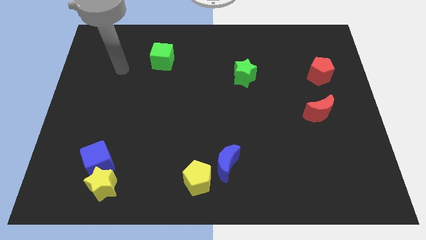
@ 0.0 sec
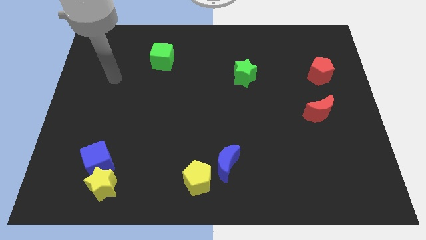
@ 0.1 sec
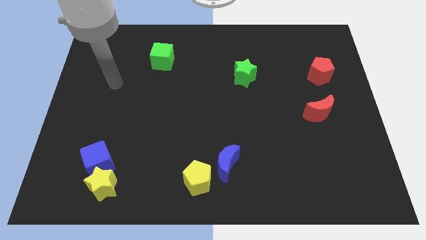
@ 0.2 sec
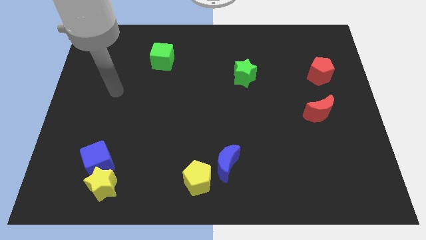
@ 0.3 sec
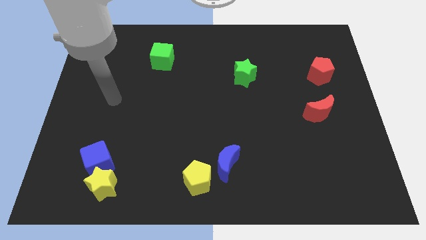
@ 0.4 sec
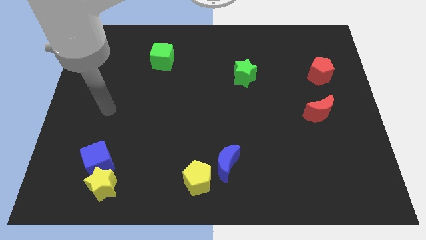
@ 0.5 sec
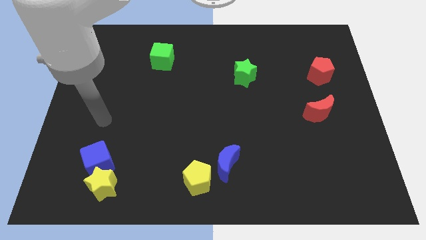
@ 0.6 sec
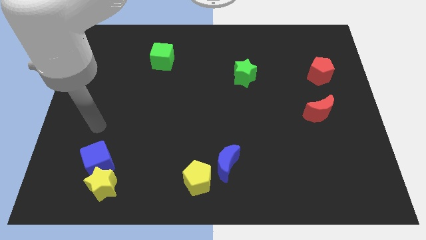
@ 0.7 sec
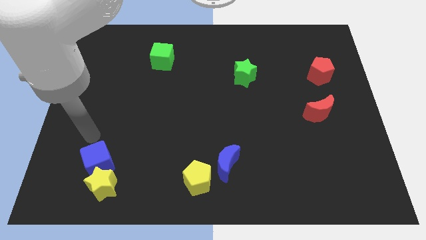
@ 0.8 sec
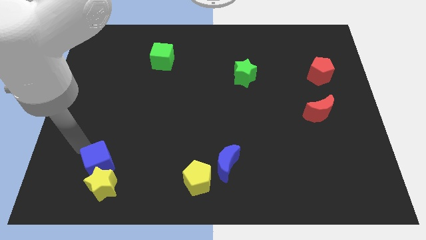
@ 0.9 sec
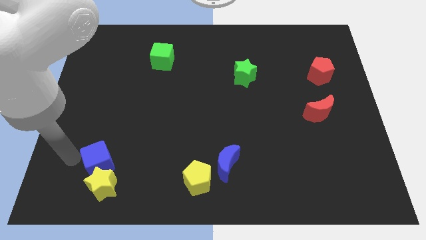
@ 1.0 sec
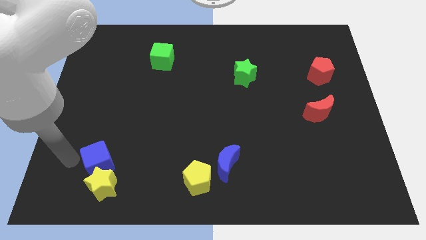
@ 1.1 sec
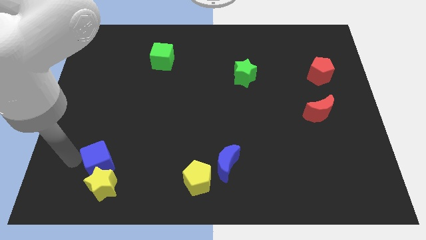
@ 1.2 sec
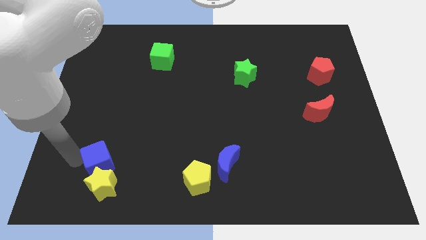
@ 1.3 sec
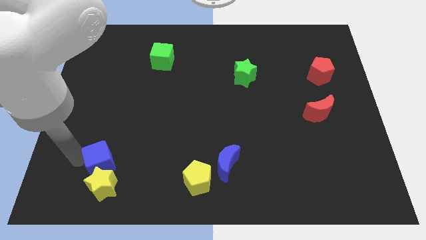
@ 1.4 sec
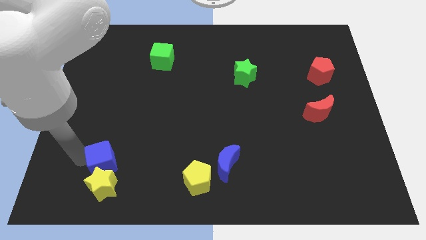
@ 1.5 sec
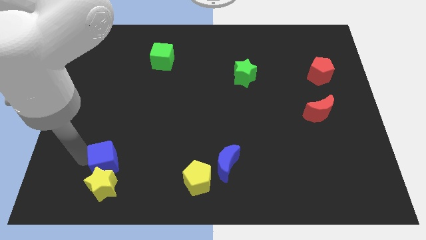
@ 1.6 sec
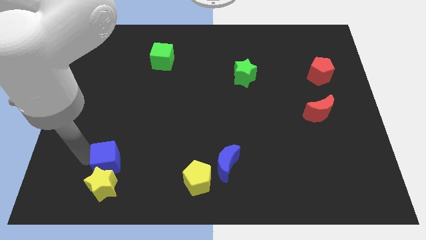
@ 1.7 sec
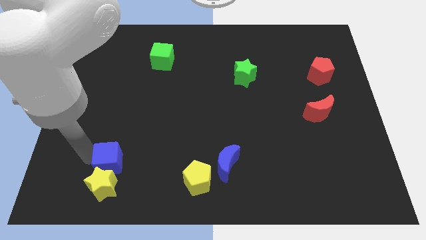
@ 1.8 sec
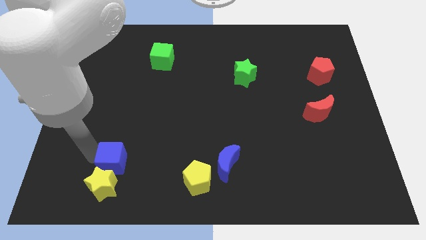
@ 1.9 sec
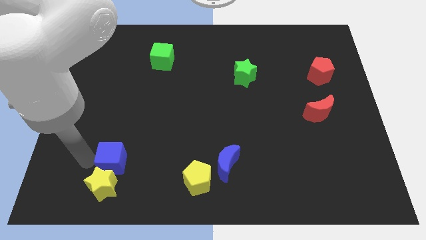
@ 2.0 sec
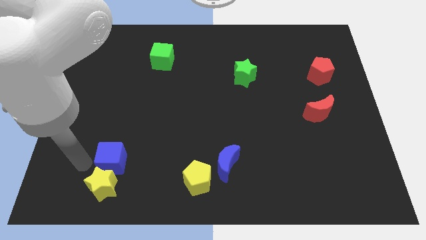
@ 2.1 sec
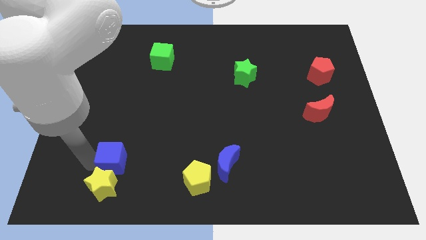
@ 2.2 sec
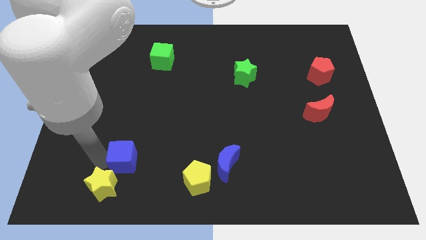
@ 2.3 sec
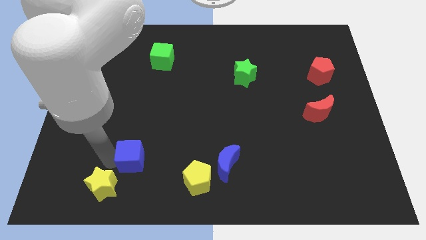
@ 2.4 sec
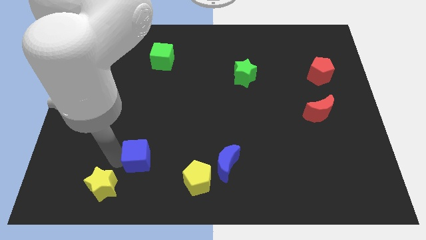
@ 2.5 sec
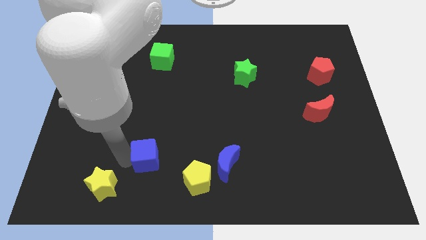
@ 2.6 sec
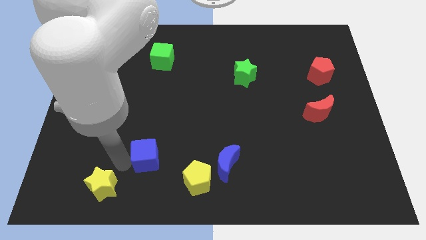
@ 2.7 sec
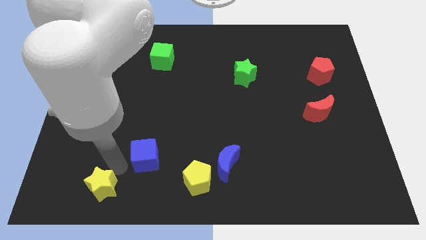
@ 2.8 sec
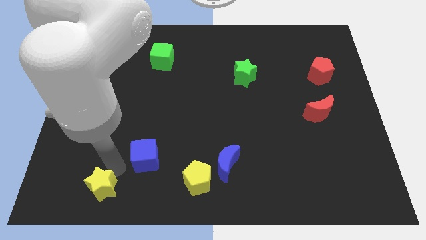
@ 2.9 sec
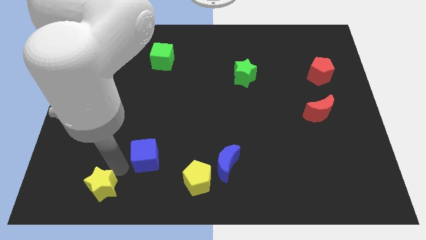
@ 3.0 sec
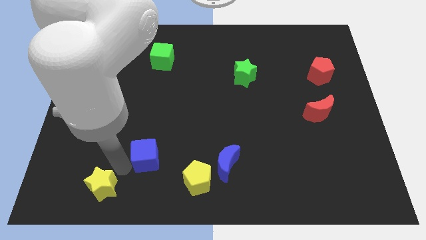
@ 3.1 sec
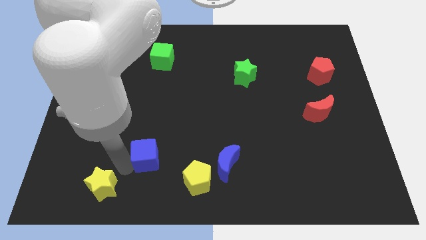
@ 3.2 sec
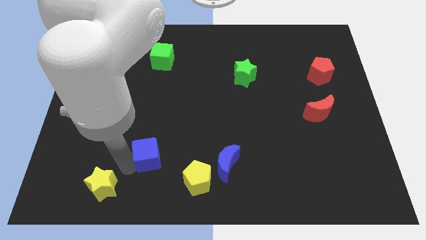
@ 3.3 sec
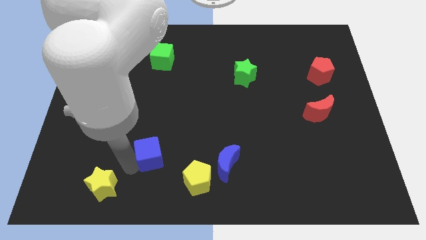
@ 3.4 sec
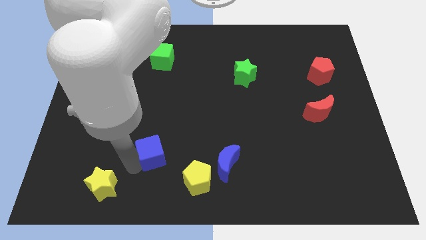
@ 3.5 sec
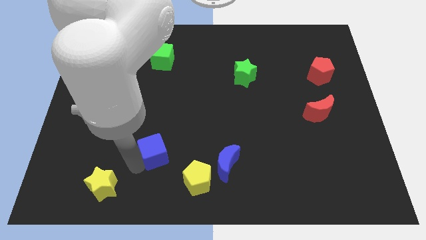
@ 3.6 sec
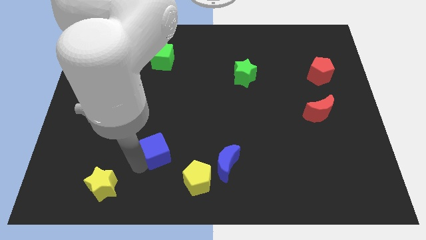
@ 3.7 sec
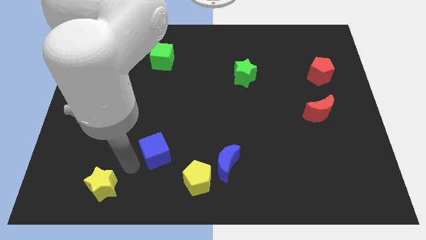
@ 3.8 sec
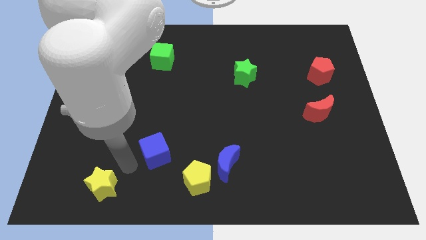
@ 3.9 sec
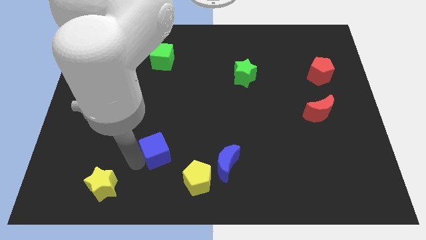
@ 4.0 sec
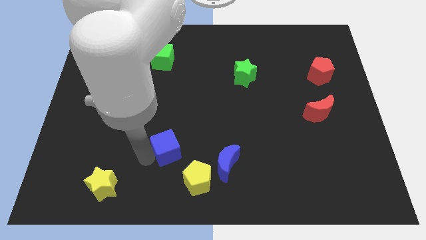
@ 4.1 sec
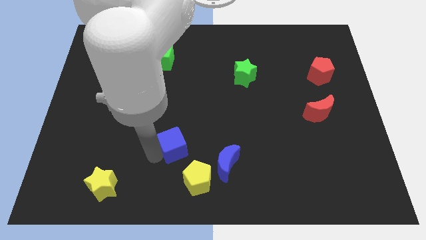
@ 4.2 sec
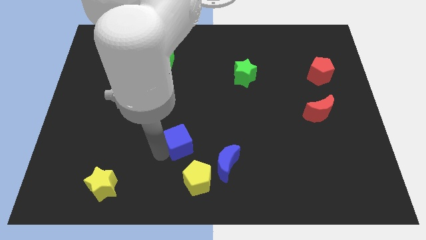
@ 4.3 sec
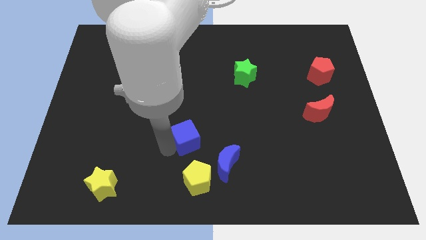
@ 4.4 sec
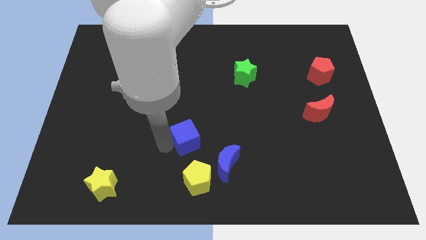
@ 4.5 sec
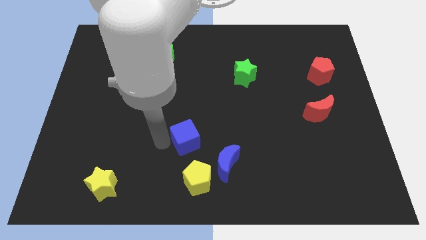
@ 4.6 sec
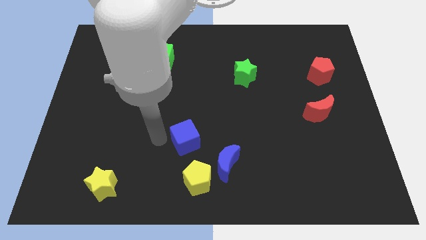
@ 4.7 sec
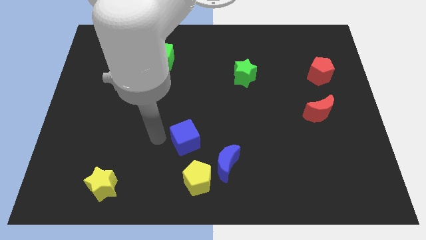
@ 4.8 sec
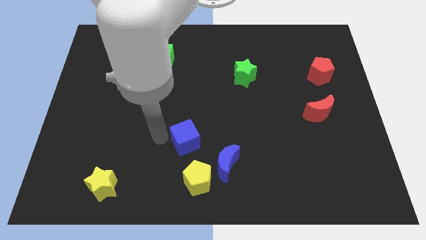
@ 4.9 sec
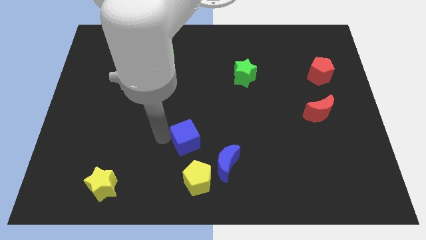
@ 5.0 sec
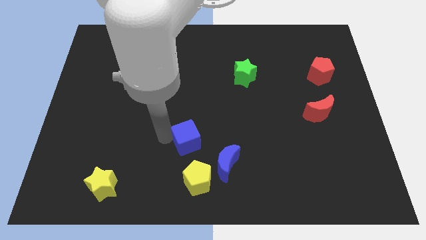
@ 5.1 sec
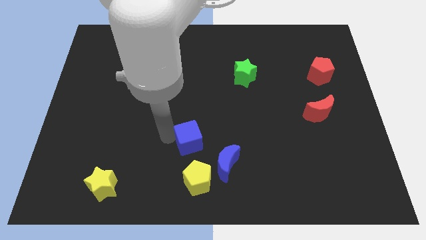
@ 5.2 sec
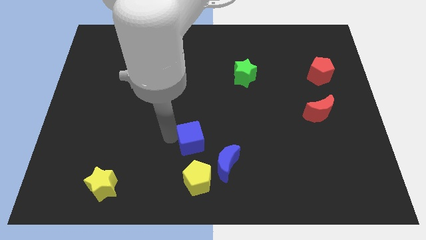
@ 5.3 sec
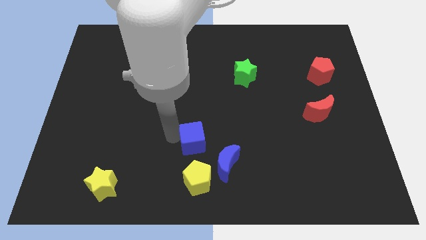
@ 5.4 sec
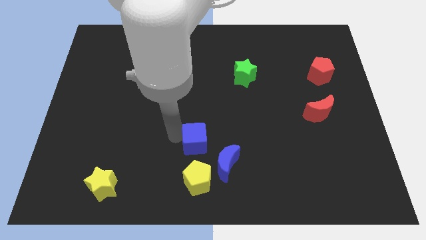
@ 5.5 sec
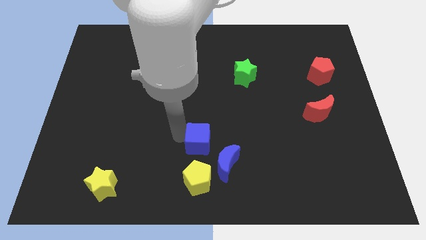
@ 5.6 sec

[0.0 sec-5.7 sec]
push the blue cube right

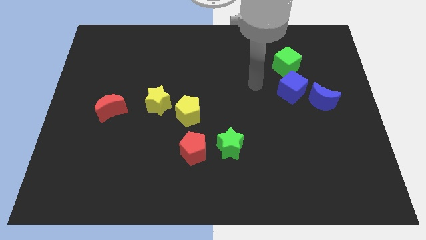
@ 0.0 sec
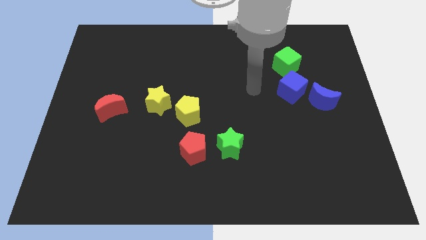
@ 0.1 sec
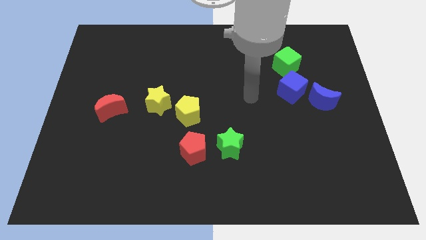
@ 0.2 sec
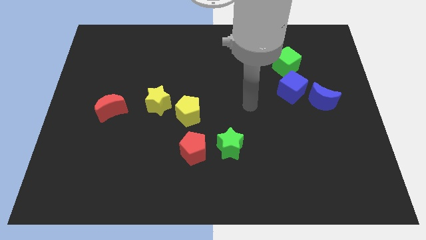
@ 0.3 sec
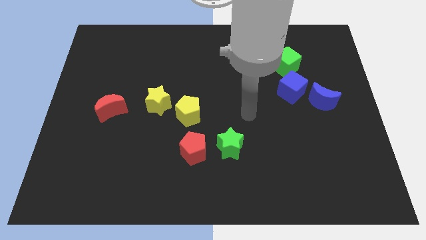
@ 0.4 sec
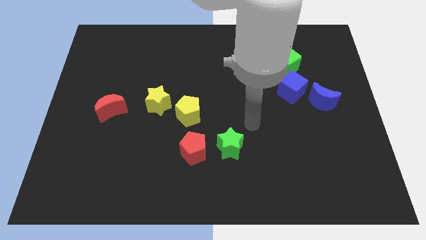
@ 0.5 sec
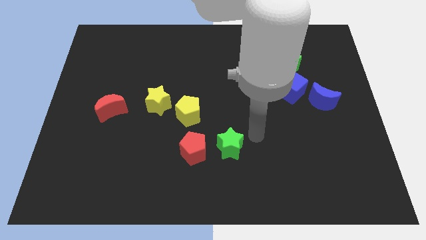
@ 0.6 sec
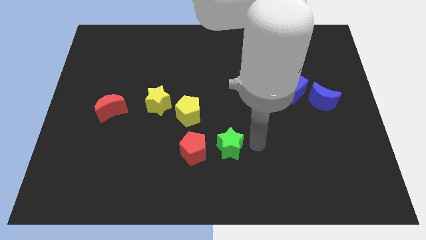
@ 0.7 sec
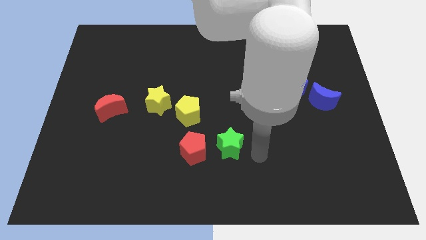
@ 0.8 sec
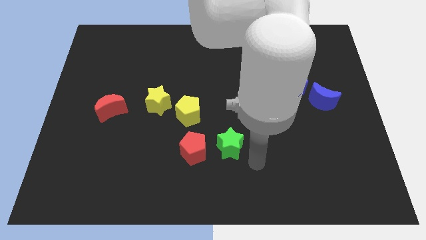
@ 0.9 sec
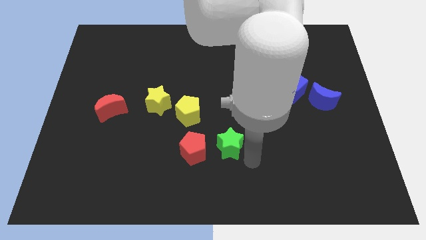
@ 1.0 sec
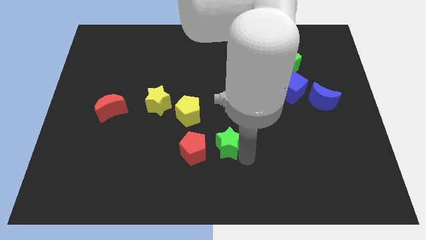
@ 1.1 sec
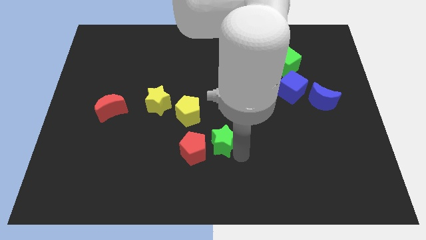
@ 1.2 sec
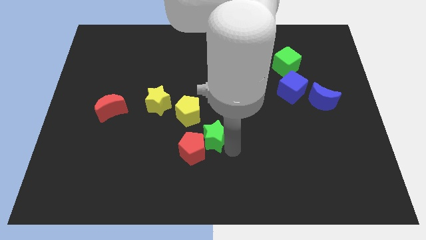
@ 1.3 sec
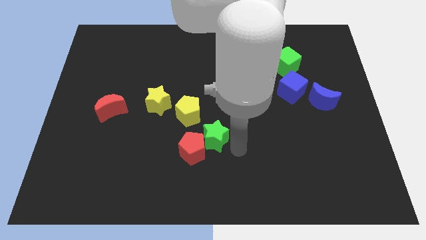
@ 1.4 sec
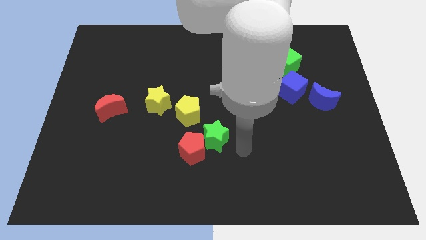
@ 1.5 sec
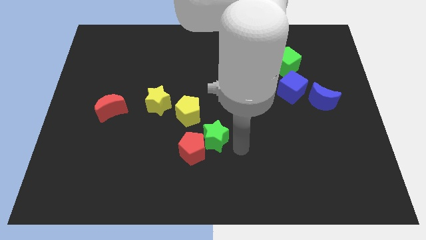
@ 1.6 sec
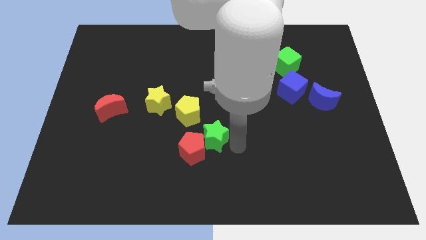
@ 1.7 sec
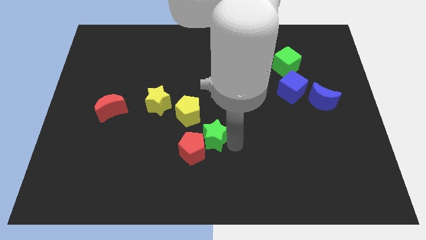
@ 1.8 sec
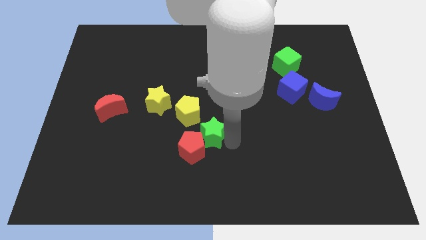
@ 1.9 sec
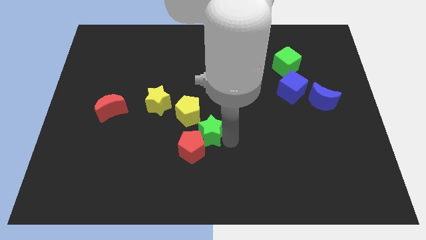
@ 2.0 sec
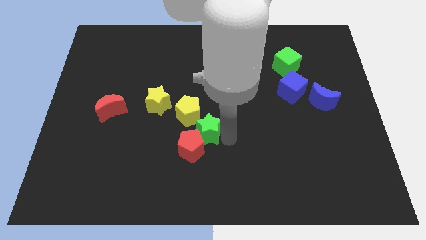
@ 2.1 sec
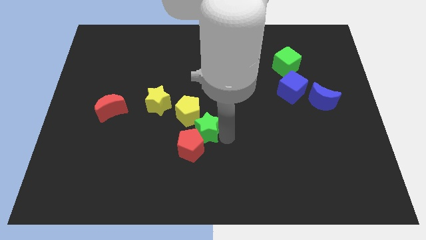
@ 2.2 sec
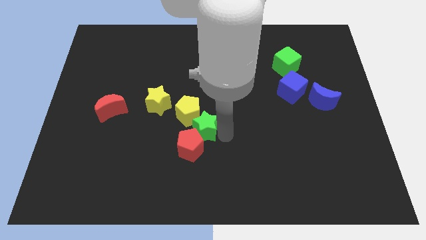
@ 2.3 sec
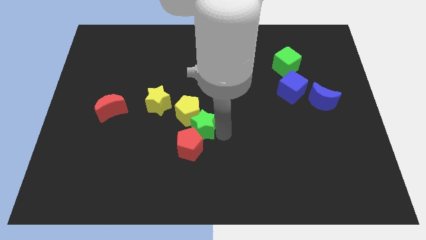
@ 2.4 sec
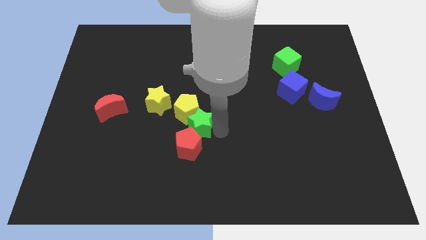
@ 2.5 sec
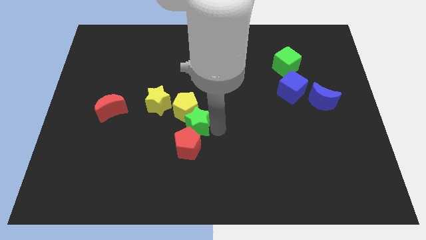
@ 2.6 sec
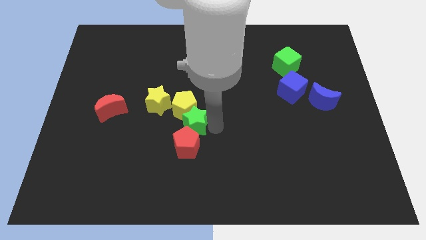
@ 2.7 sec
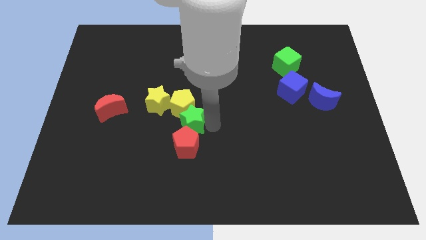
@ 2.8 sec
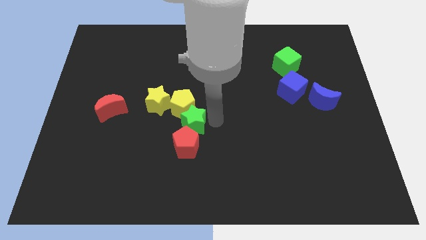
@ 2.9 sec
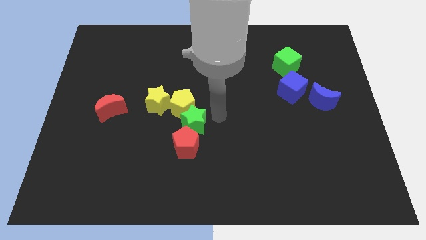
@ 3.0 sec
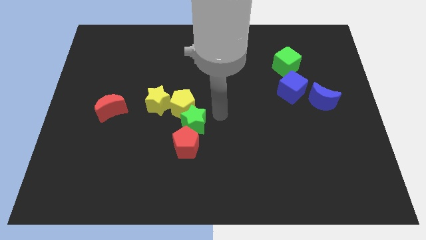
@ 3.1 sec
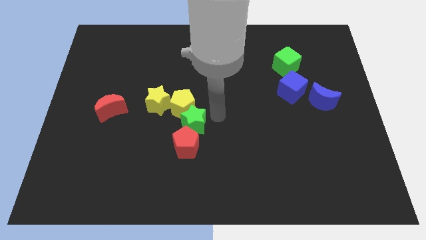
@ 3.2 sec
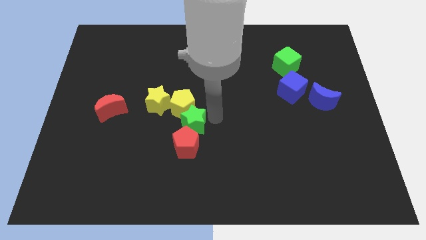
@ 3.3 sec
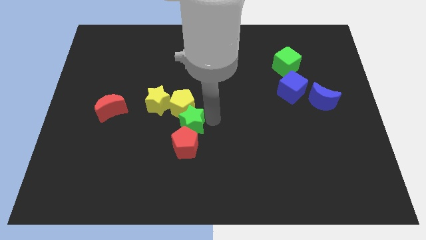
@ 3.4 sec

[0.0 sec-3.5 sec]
push the green star slightly left
